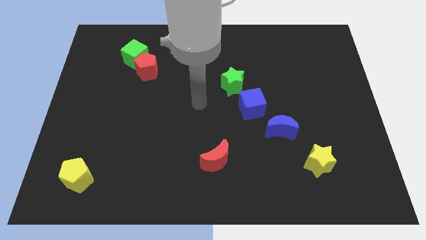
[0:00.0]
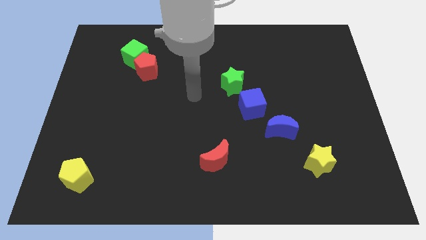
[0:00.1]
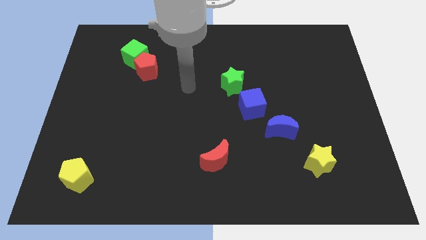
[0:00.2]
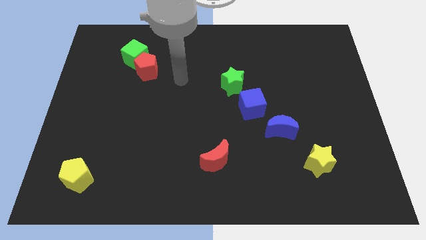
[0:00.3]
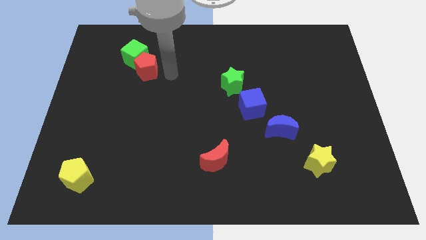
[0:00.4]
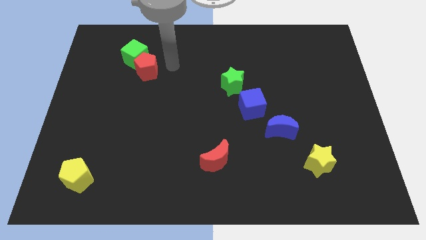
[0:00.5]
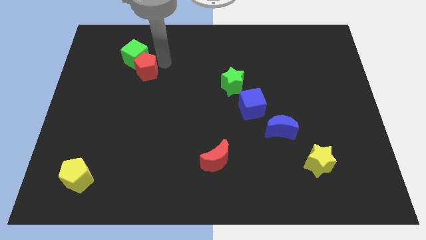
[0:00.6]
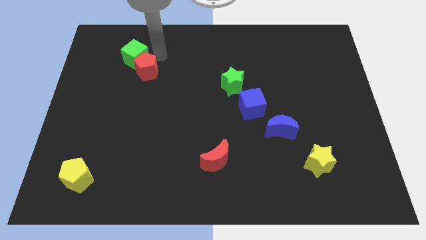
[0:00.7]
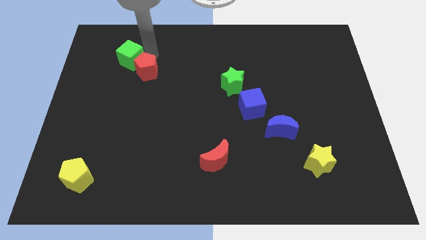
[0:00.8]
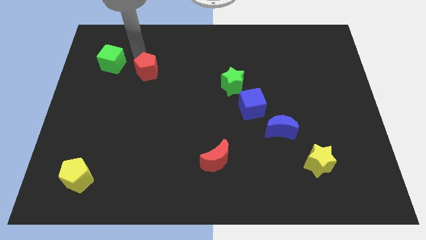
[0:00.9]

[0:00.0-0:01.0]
pull the red pentagon apart from the green cube

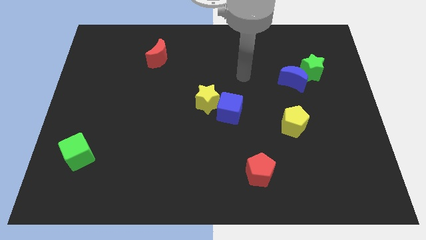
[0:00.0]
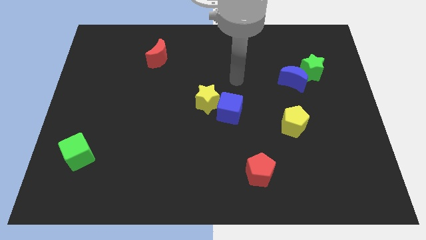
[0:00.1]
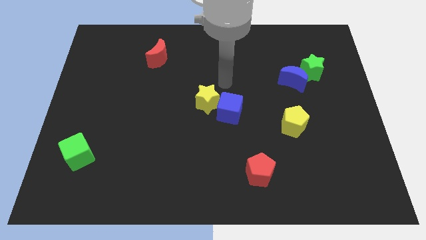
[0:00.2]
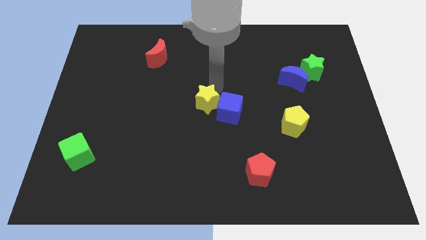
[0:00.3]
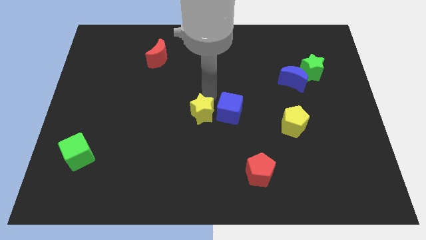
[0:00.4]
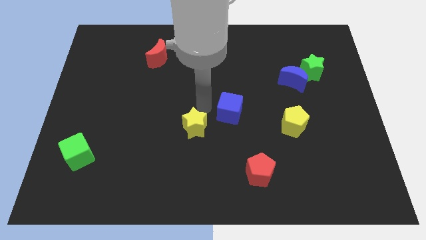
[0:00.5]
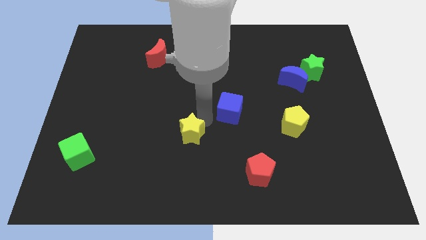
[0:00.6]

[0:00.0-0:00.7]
move the blue cube away from the yellow star

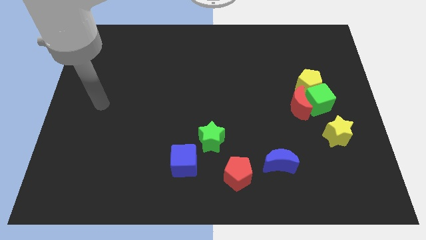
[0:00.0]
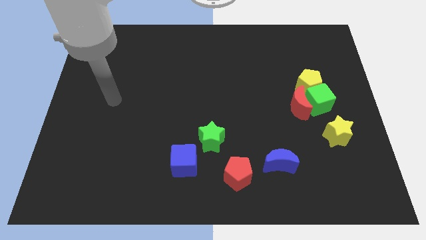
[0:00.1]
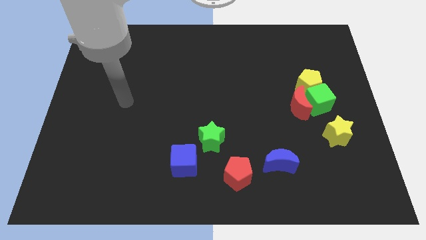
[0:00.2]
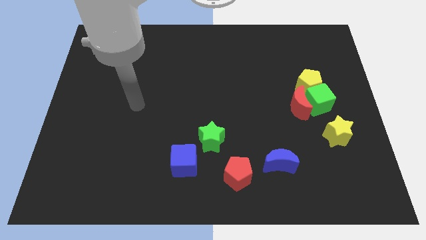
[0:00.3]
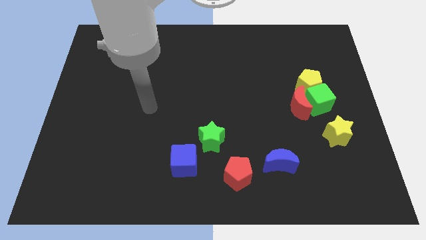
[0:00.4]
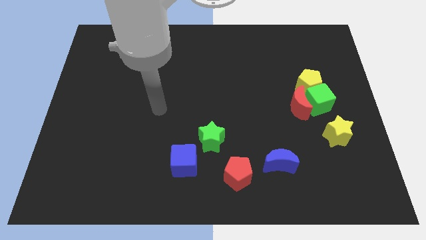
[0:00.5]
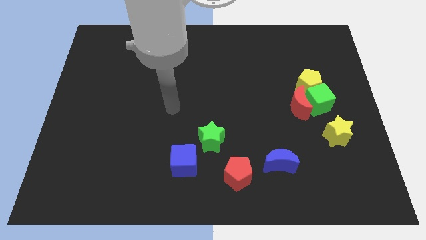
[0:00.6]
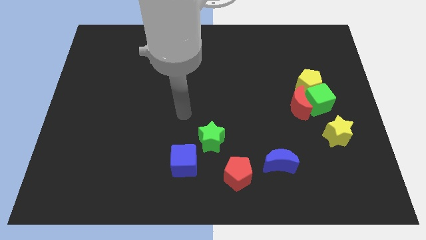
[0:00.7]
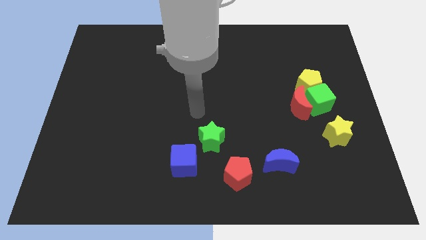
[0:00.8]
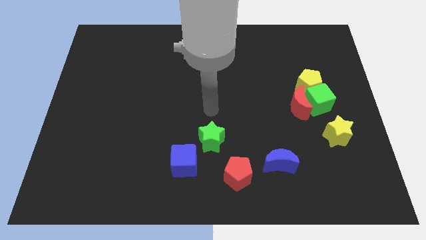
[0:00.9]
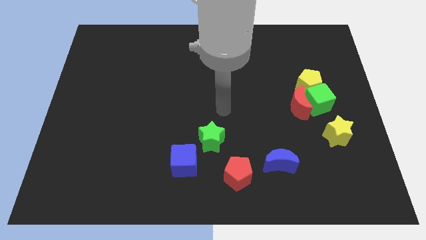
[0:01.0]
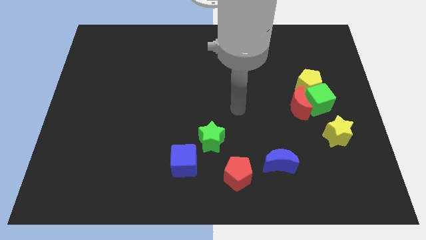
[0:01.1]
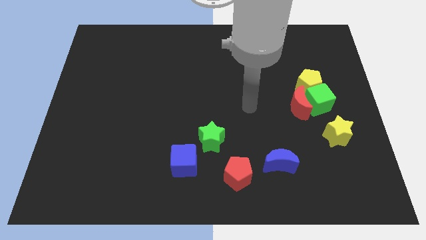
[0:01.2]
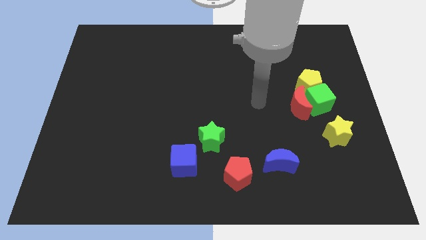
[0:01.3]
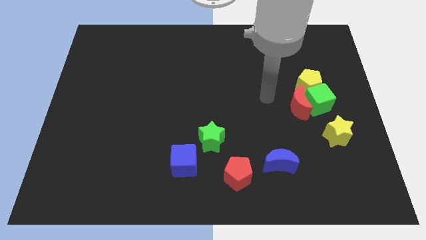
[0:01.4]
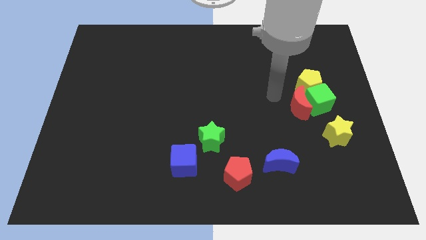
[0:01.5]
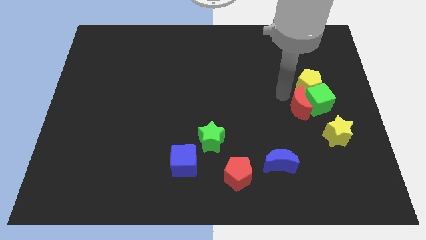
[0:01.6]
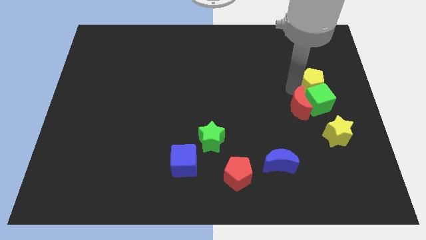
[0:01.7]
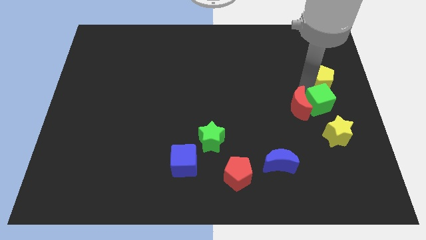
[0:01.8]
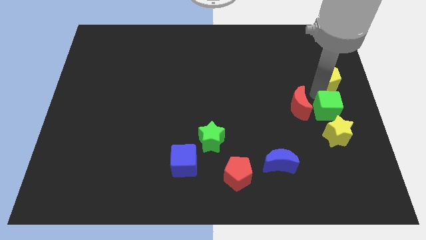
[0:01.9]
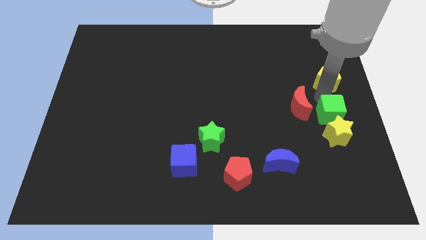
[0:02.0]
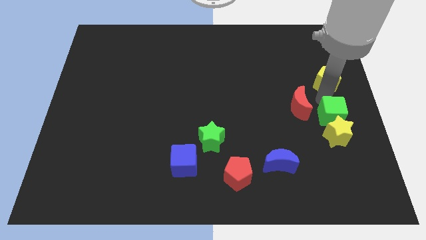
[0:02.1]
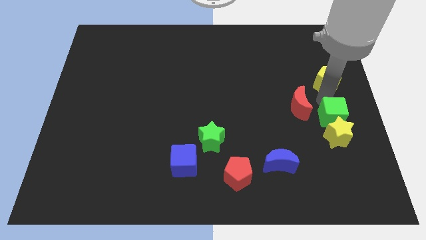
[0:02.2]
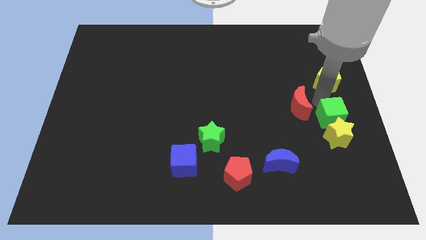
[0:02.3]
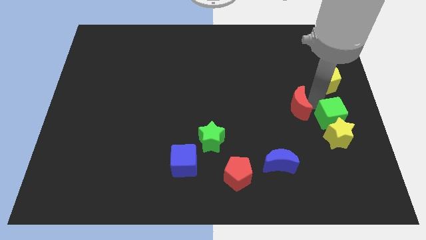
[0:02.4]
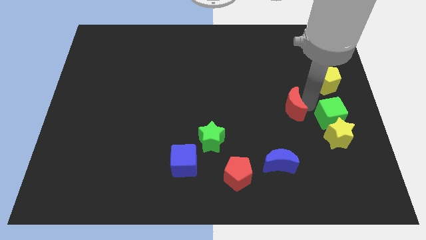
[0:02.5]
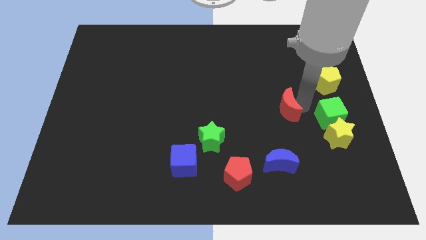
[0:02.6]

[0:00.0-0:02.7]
move the red moon away from the green cube and yellow pentagon

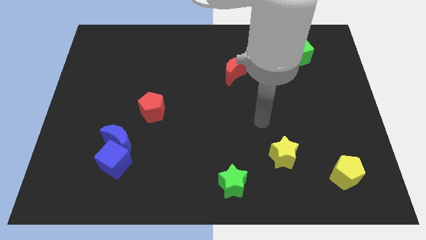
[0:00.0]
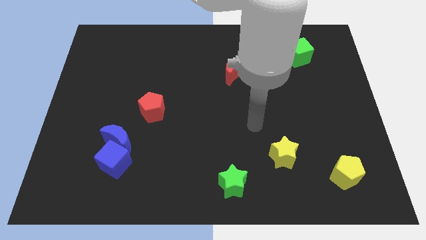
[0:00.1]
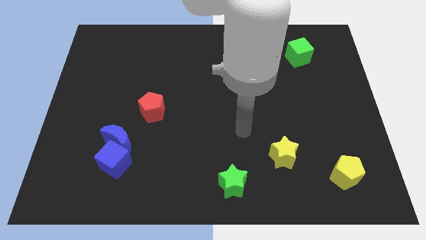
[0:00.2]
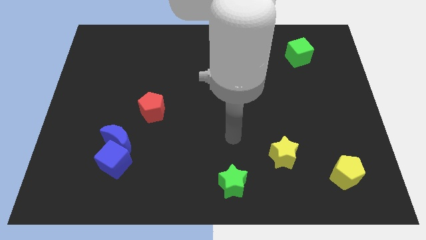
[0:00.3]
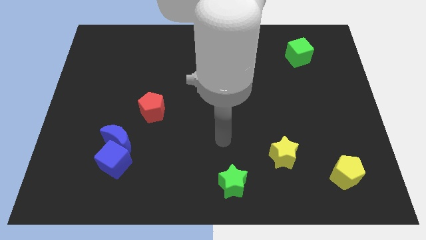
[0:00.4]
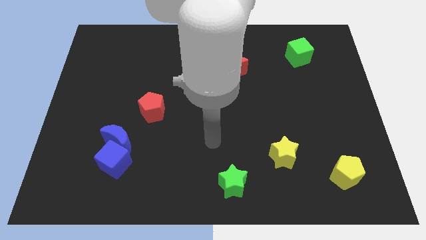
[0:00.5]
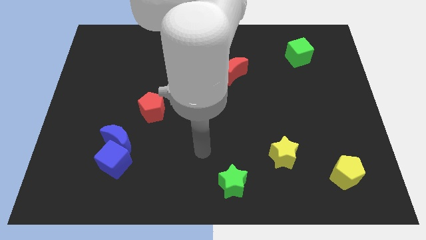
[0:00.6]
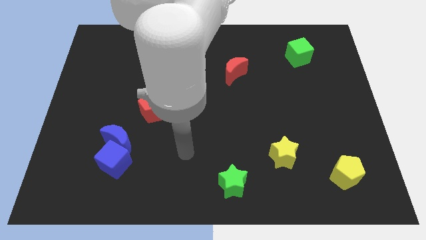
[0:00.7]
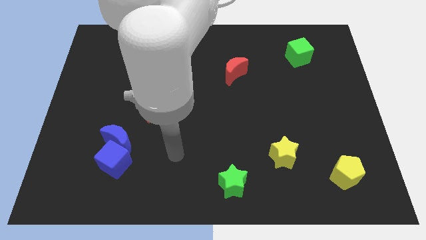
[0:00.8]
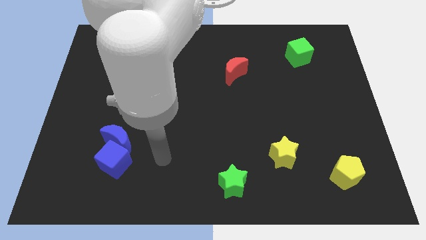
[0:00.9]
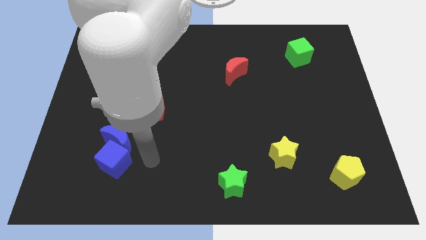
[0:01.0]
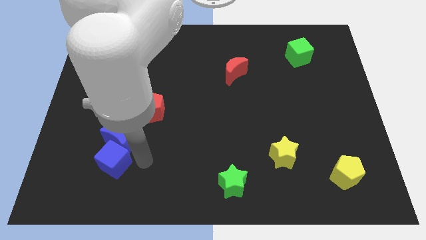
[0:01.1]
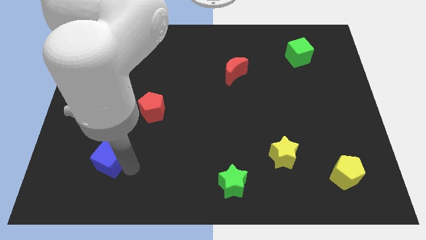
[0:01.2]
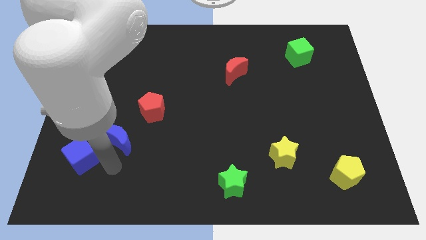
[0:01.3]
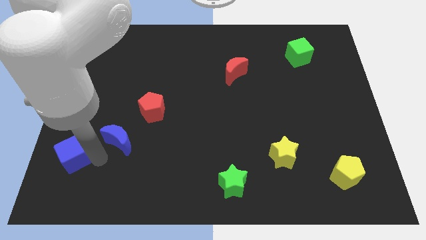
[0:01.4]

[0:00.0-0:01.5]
separate the blue moon from the blue cube

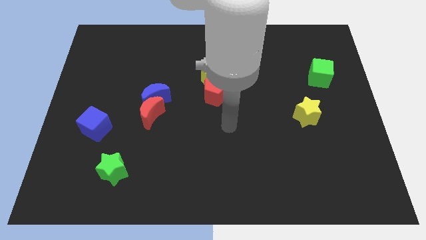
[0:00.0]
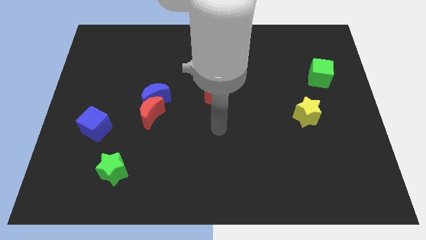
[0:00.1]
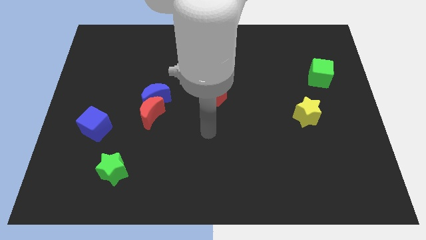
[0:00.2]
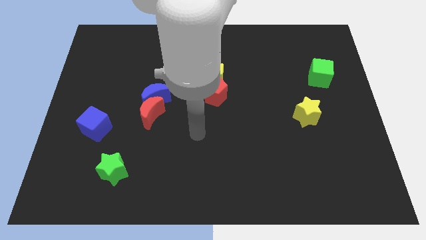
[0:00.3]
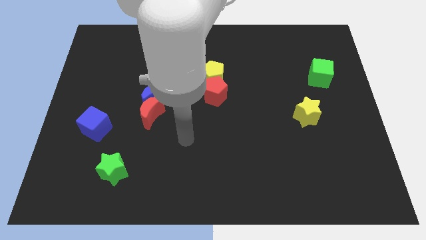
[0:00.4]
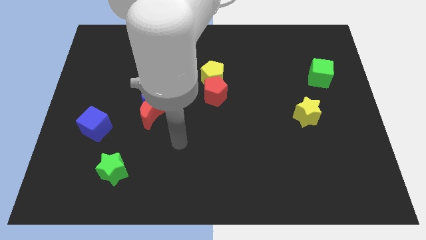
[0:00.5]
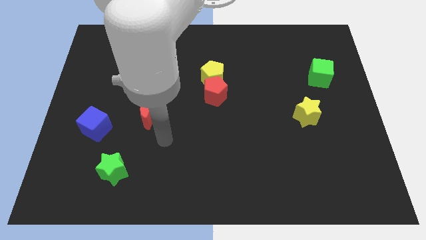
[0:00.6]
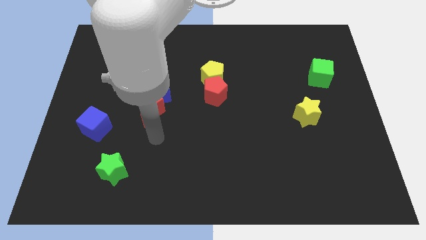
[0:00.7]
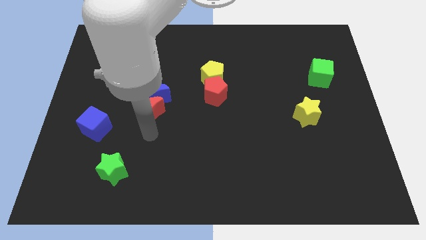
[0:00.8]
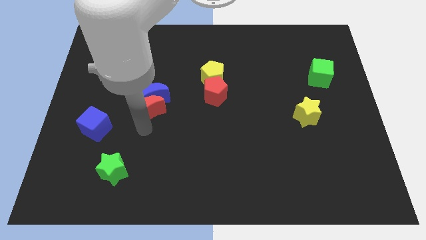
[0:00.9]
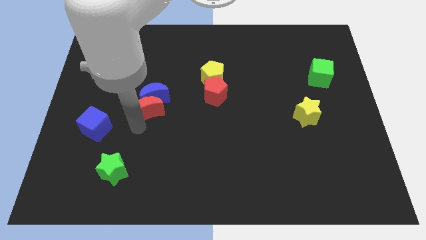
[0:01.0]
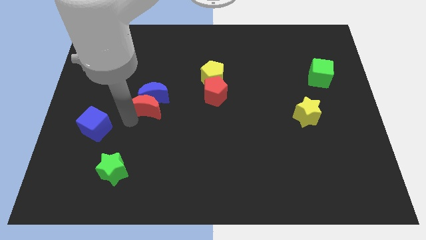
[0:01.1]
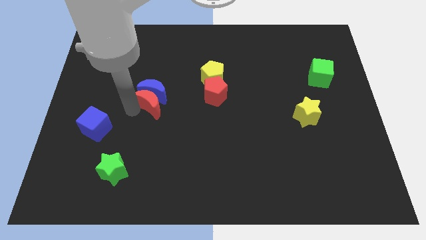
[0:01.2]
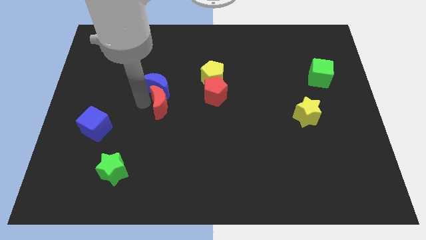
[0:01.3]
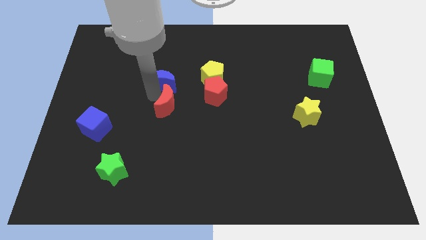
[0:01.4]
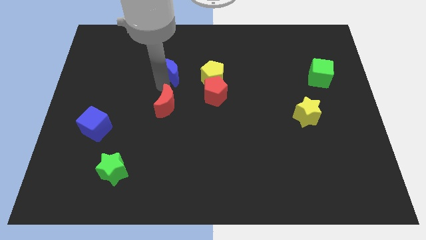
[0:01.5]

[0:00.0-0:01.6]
move the red moon away from the blue moon

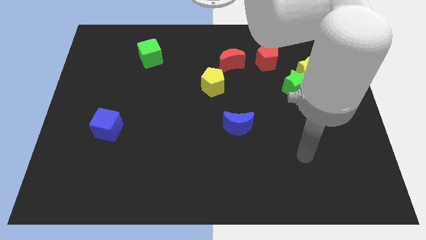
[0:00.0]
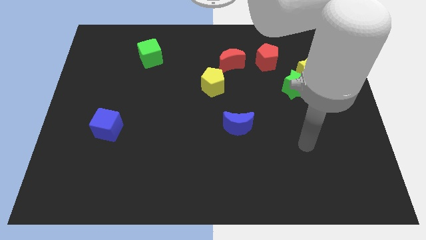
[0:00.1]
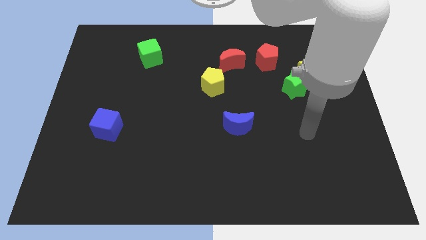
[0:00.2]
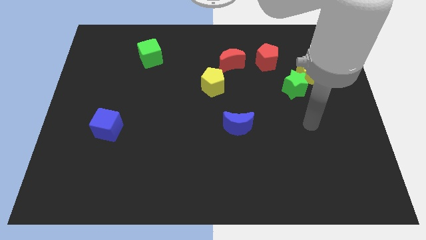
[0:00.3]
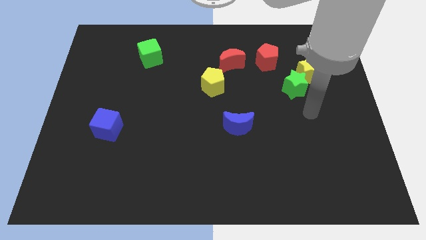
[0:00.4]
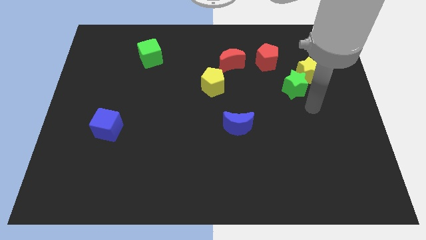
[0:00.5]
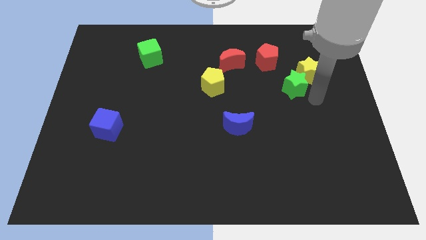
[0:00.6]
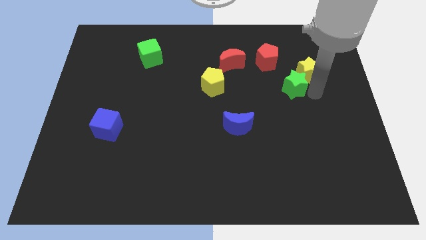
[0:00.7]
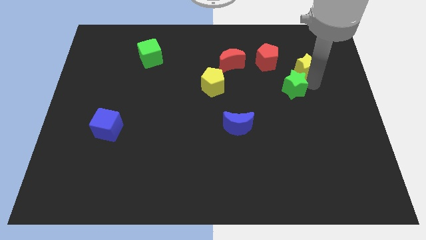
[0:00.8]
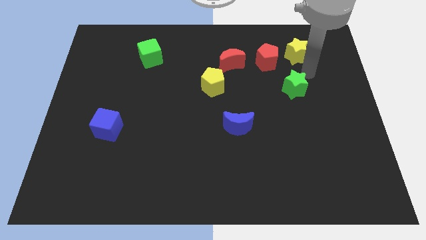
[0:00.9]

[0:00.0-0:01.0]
pull the green star apart from the yellow star

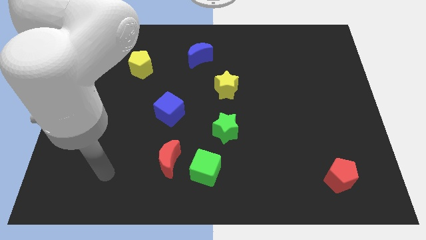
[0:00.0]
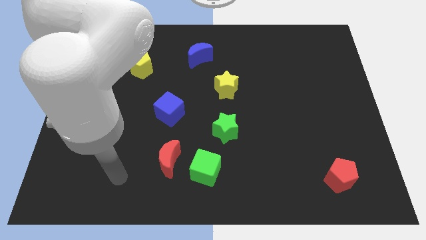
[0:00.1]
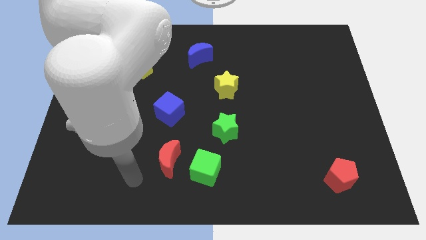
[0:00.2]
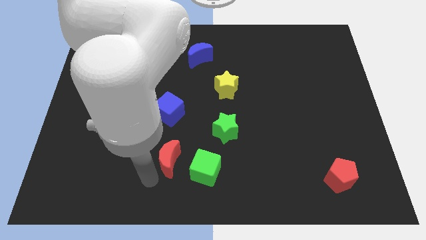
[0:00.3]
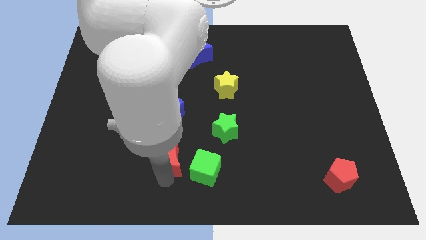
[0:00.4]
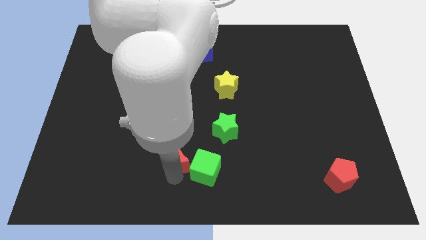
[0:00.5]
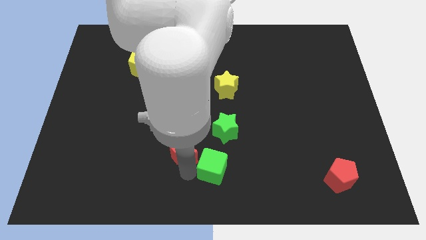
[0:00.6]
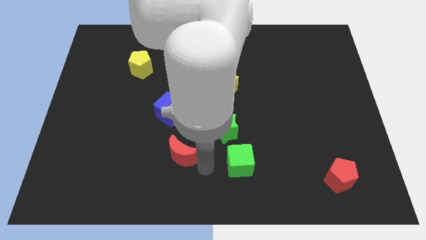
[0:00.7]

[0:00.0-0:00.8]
pull the red moon apart from the green cube
